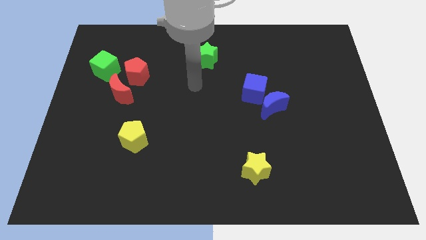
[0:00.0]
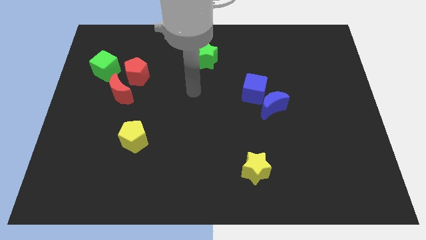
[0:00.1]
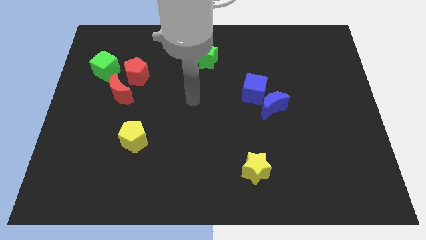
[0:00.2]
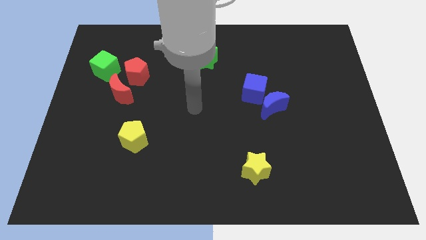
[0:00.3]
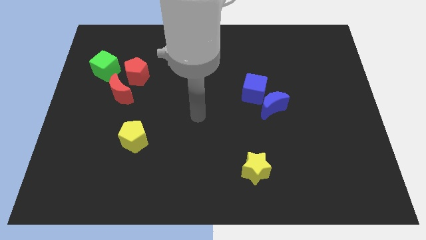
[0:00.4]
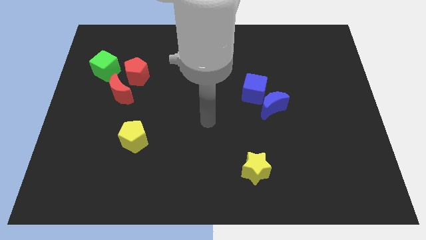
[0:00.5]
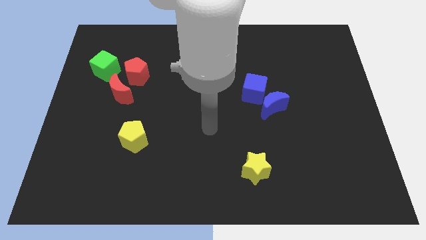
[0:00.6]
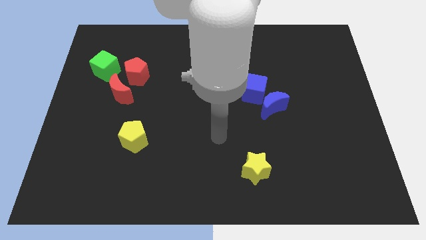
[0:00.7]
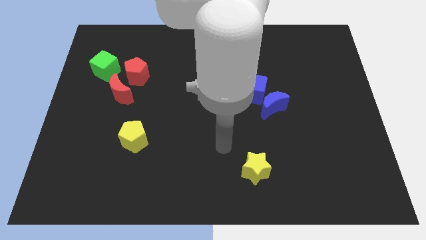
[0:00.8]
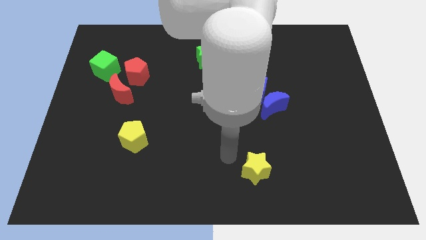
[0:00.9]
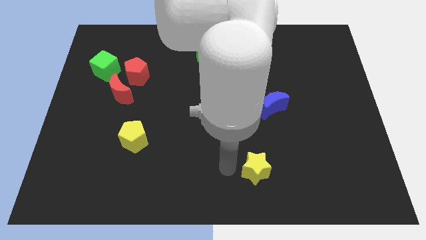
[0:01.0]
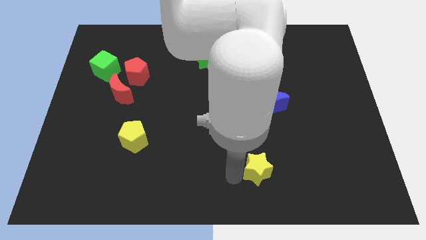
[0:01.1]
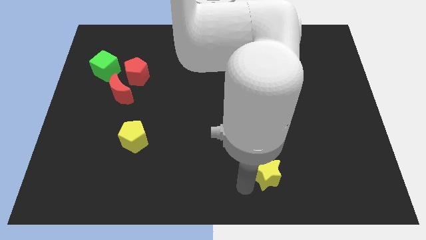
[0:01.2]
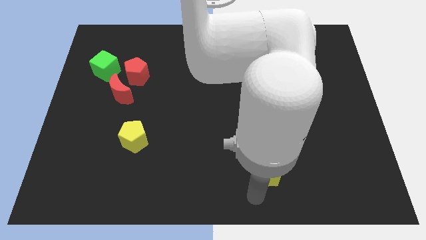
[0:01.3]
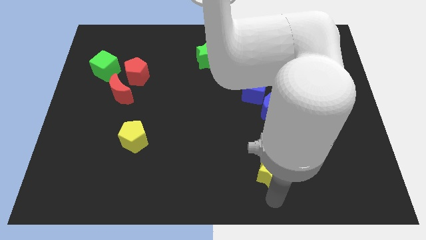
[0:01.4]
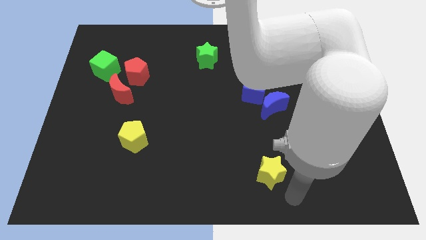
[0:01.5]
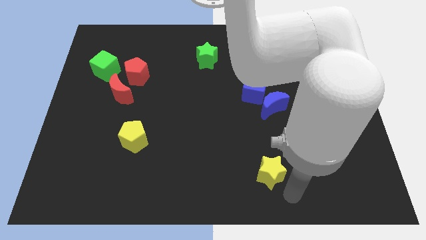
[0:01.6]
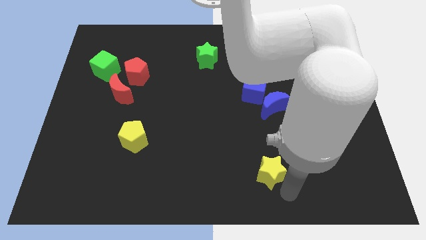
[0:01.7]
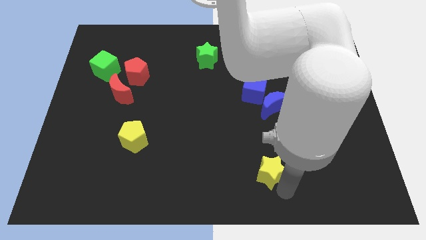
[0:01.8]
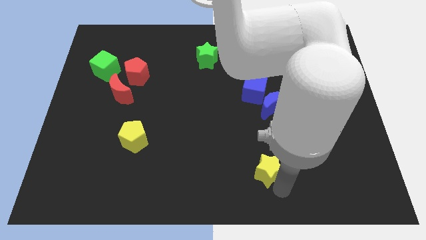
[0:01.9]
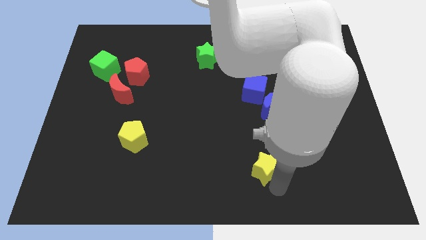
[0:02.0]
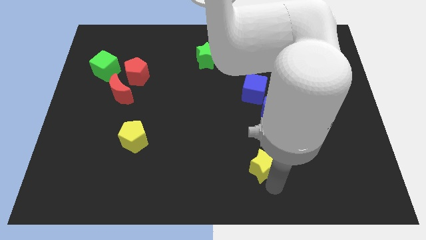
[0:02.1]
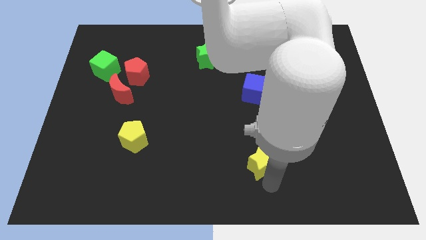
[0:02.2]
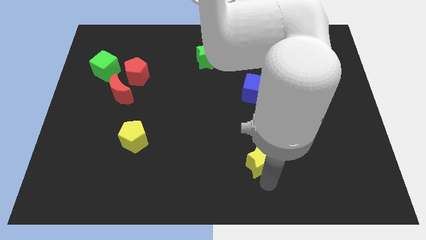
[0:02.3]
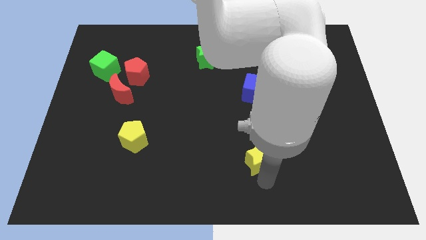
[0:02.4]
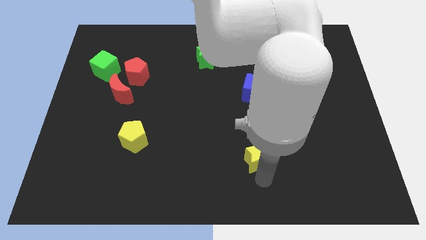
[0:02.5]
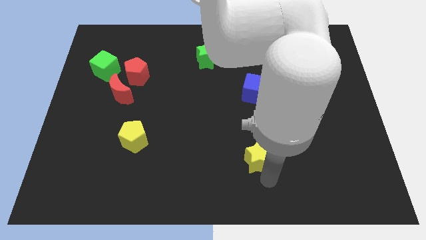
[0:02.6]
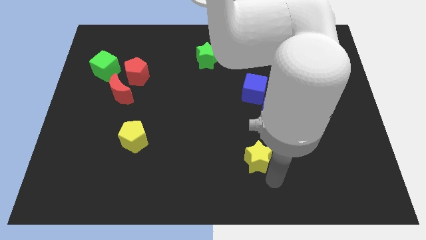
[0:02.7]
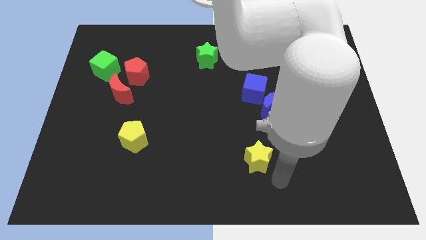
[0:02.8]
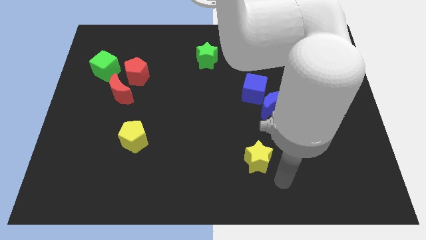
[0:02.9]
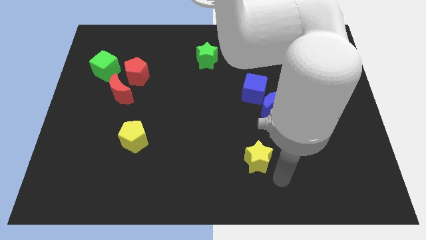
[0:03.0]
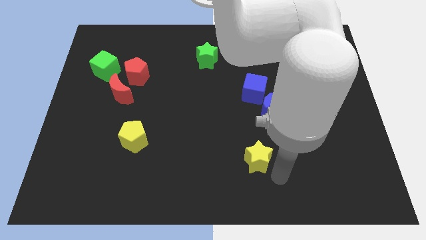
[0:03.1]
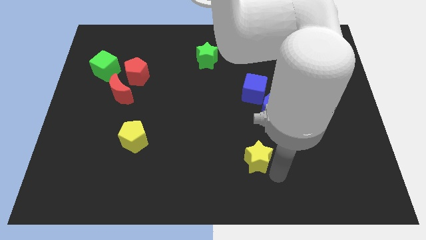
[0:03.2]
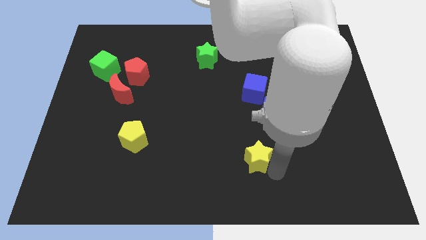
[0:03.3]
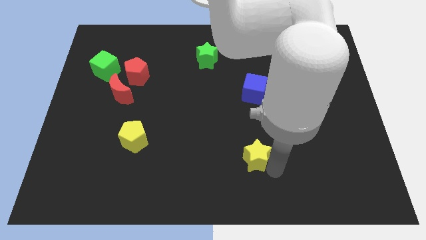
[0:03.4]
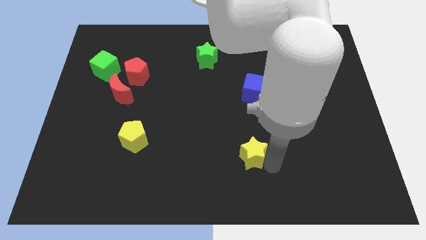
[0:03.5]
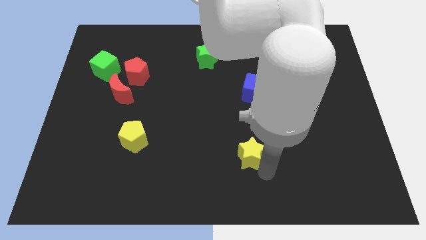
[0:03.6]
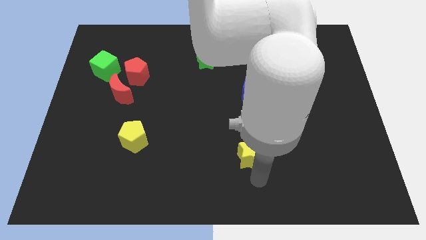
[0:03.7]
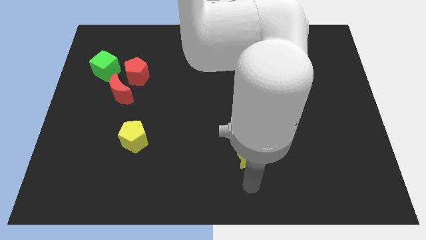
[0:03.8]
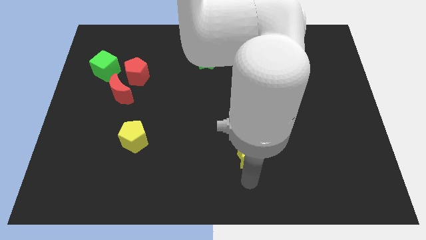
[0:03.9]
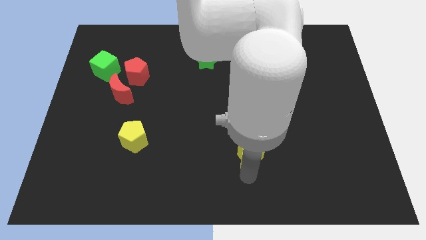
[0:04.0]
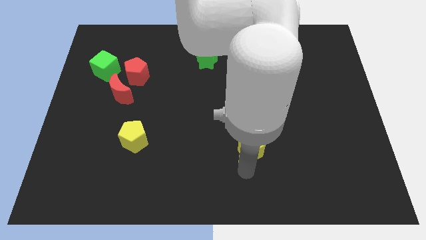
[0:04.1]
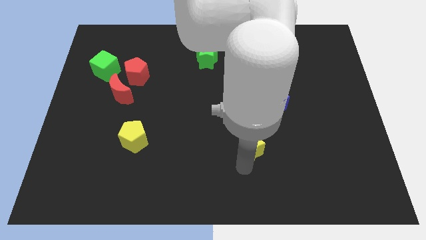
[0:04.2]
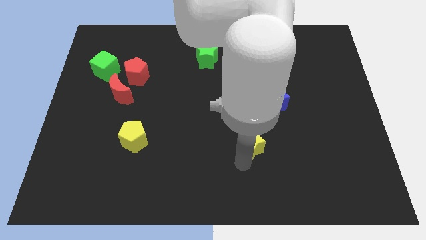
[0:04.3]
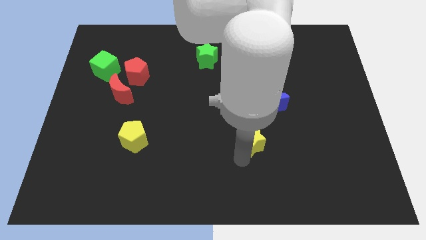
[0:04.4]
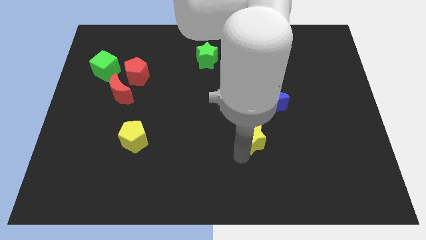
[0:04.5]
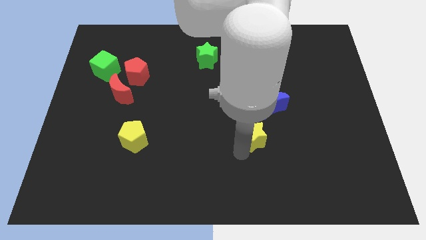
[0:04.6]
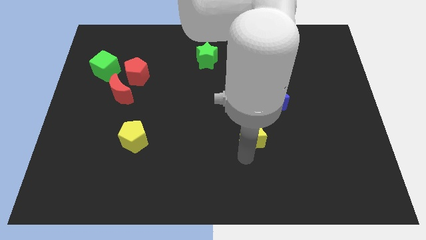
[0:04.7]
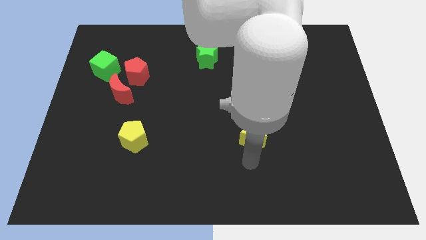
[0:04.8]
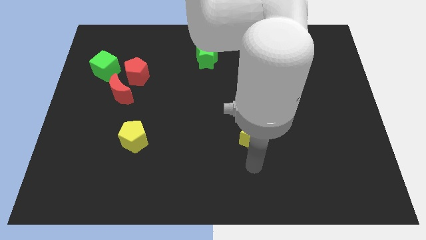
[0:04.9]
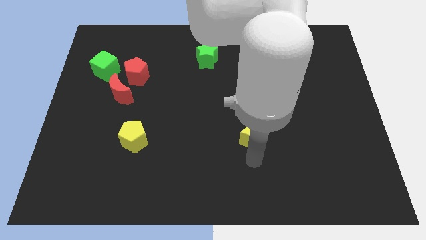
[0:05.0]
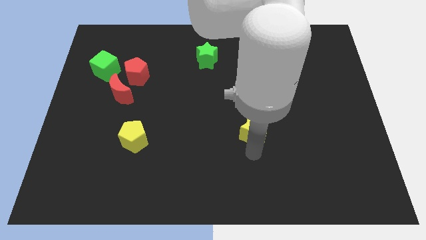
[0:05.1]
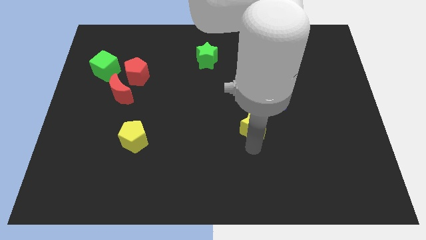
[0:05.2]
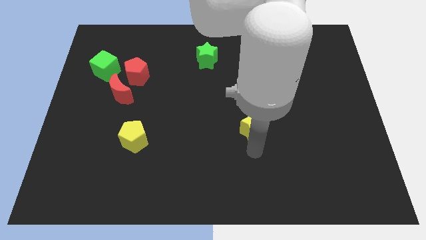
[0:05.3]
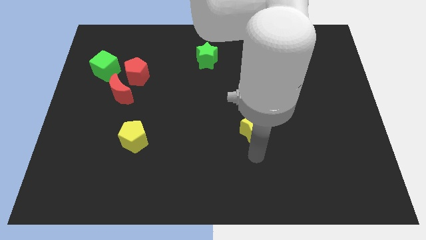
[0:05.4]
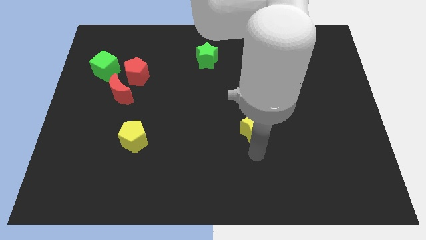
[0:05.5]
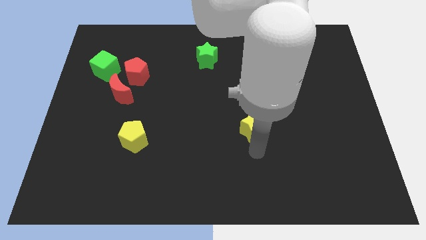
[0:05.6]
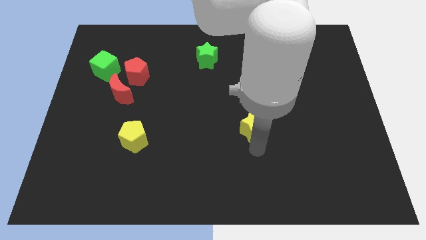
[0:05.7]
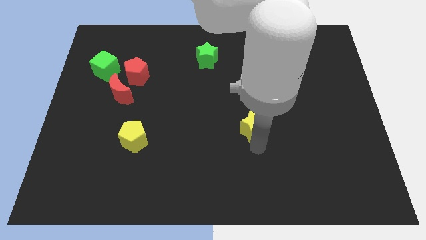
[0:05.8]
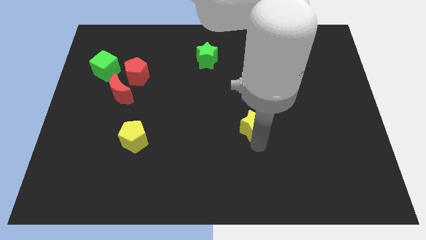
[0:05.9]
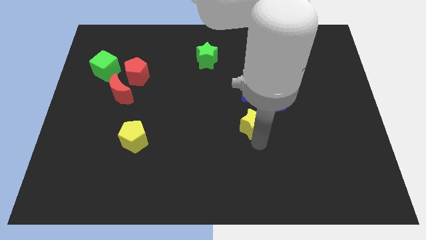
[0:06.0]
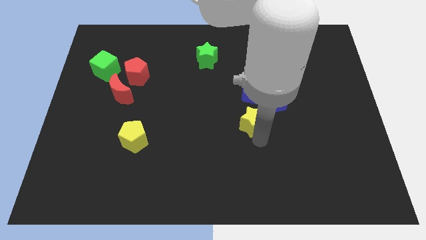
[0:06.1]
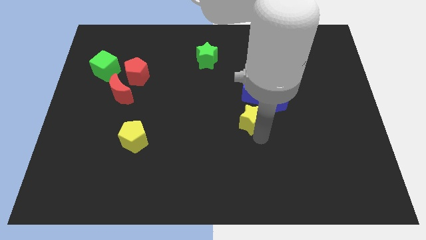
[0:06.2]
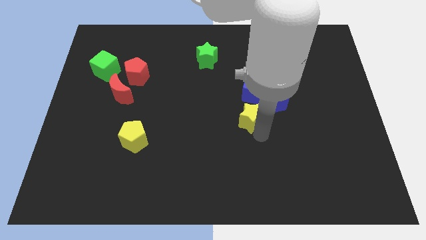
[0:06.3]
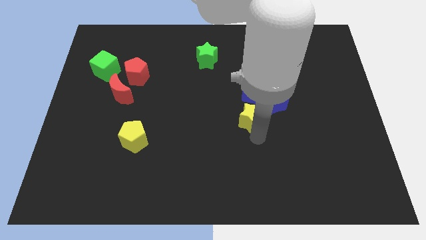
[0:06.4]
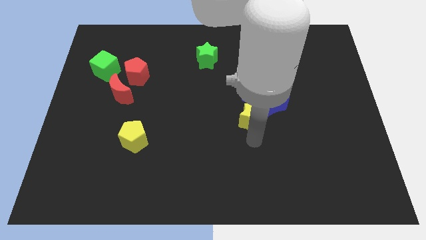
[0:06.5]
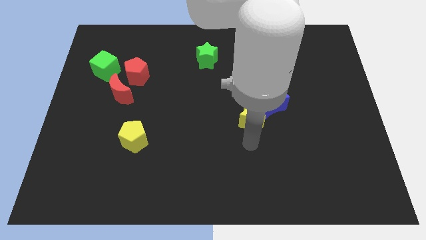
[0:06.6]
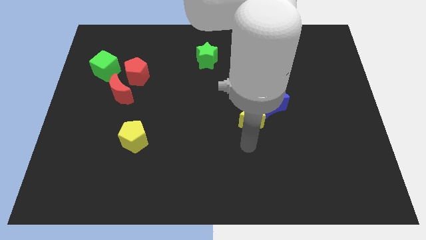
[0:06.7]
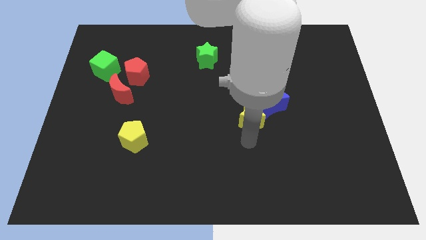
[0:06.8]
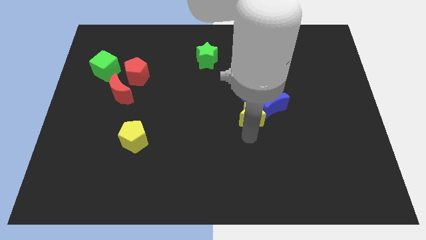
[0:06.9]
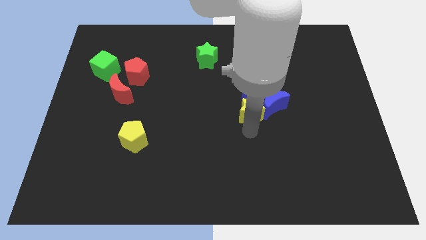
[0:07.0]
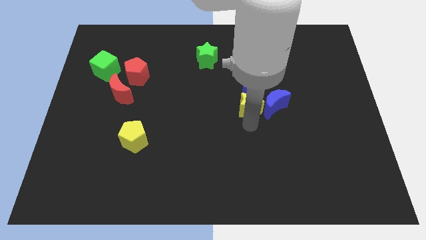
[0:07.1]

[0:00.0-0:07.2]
push the yellow star next to the blue cube

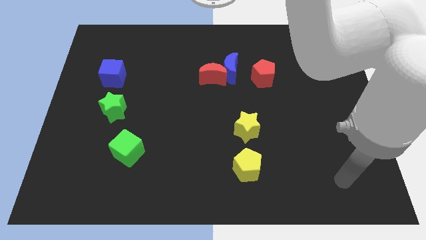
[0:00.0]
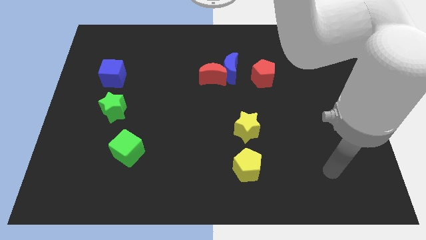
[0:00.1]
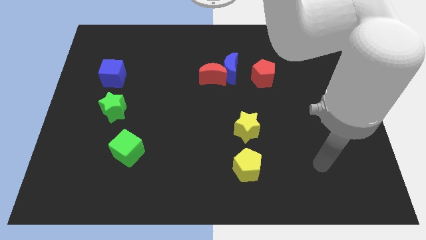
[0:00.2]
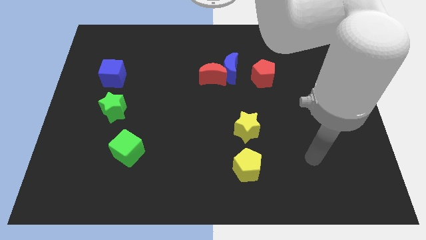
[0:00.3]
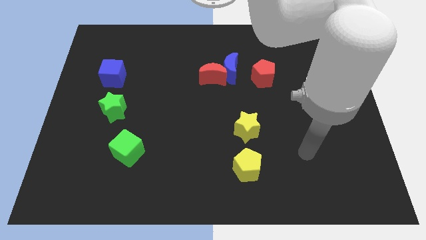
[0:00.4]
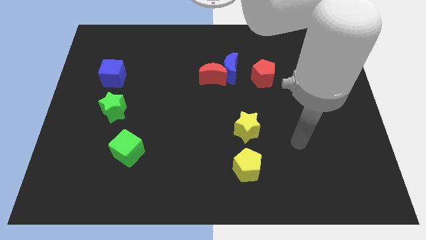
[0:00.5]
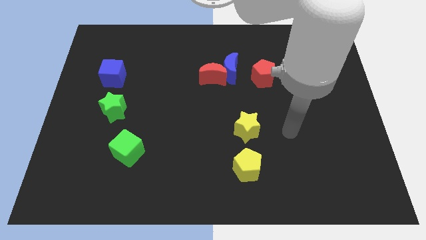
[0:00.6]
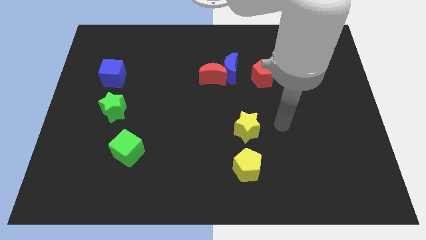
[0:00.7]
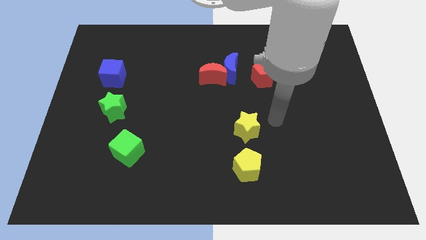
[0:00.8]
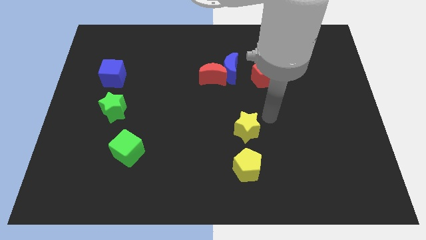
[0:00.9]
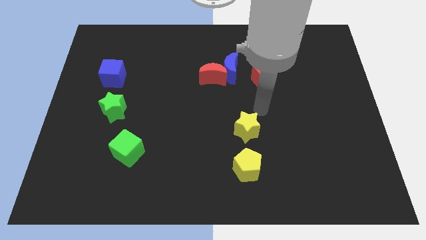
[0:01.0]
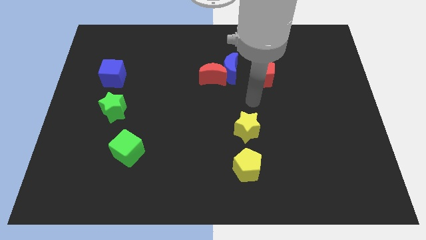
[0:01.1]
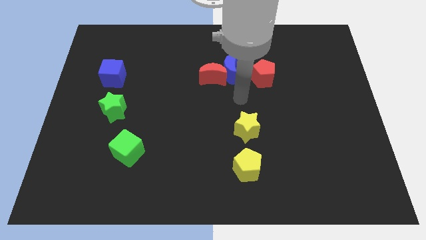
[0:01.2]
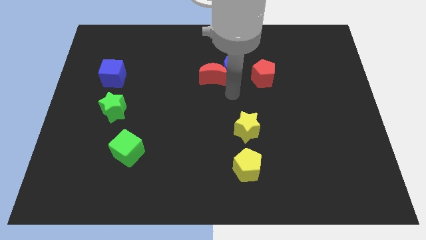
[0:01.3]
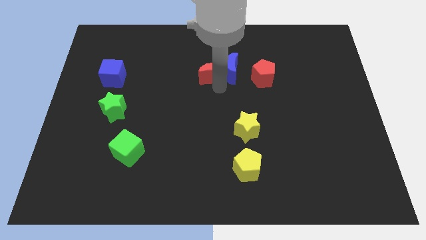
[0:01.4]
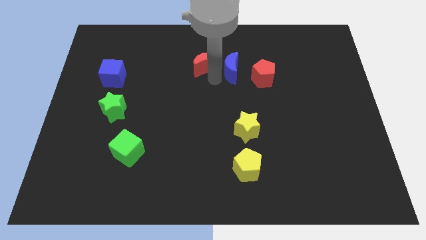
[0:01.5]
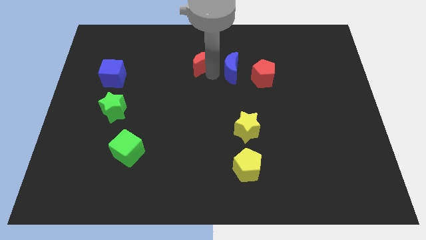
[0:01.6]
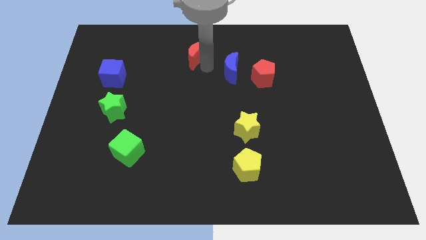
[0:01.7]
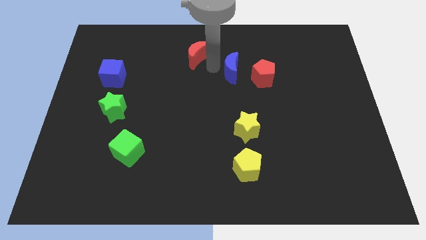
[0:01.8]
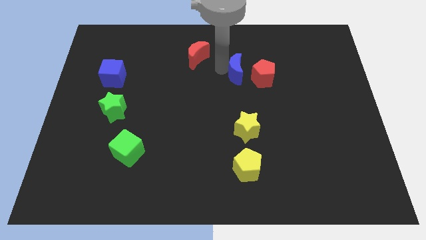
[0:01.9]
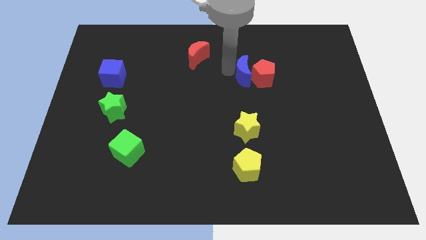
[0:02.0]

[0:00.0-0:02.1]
move the blue moon to the red pentagon
